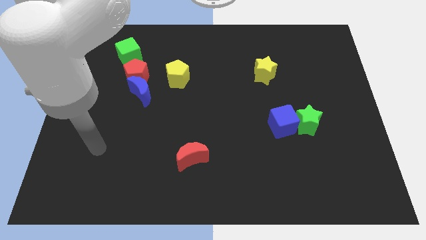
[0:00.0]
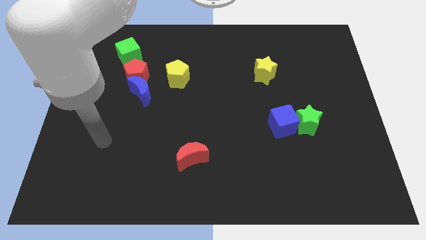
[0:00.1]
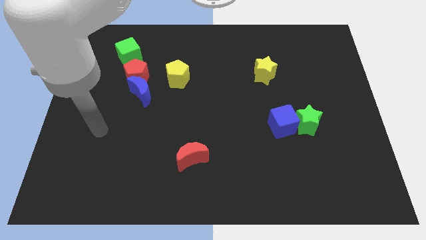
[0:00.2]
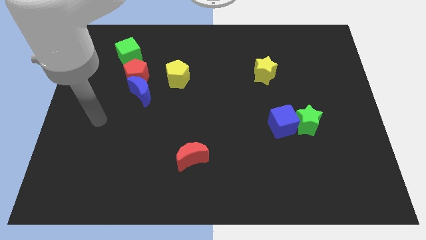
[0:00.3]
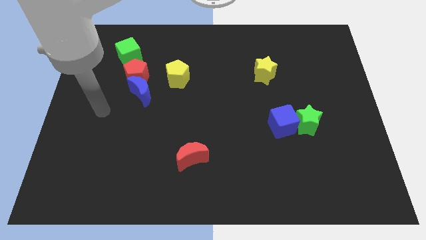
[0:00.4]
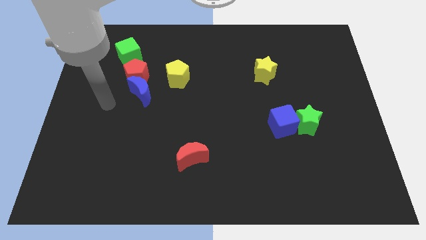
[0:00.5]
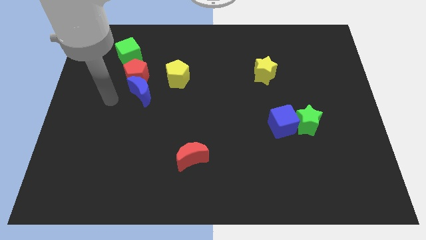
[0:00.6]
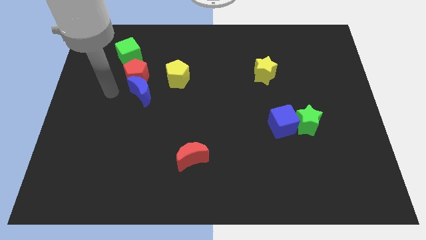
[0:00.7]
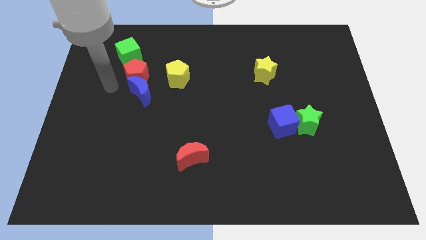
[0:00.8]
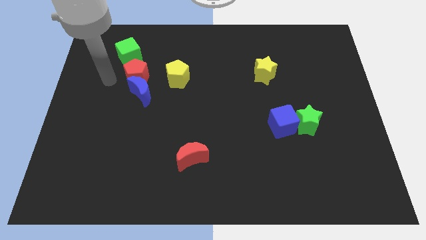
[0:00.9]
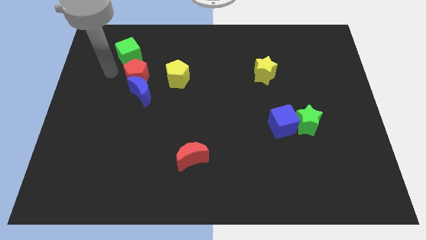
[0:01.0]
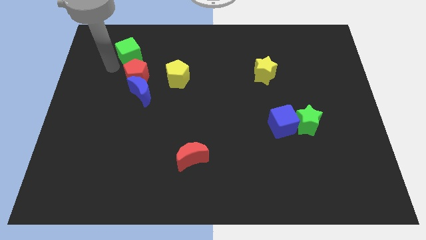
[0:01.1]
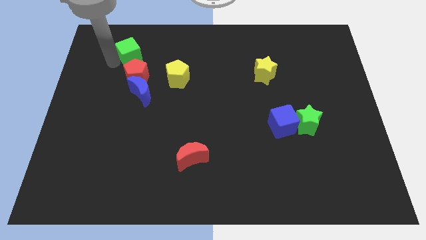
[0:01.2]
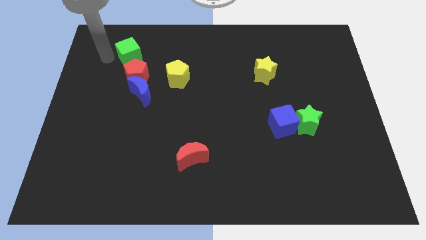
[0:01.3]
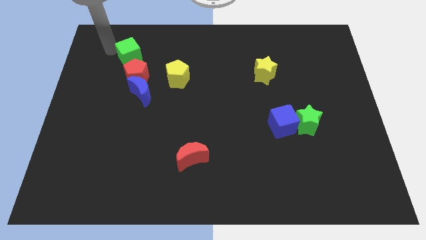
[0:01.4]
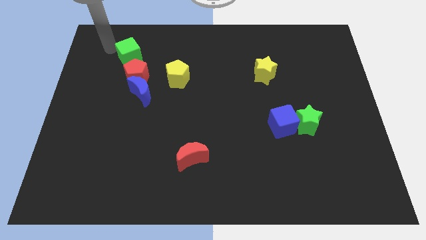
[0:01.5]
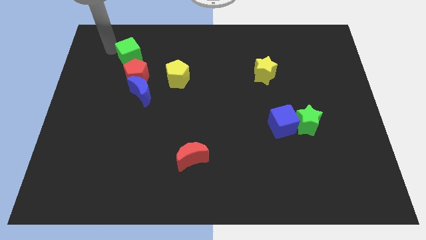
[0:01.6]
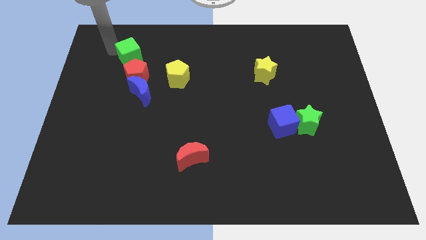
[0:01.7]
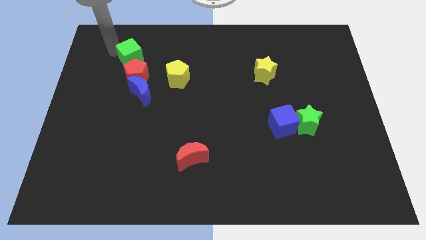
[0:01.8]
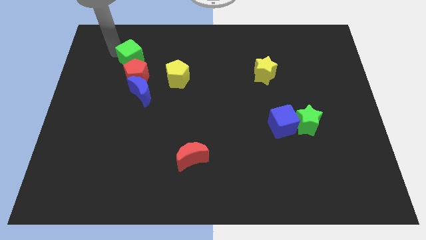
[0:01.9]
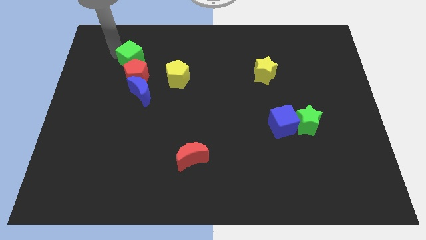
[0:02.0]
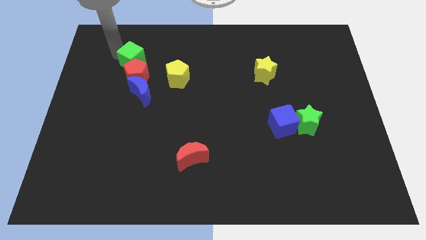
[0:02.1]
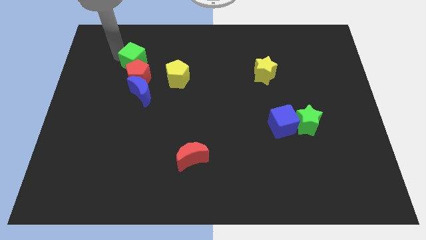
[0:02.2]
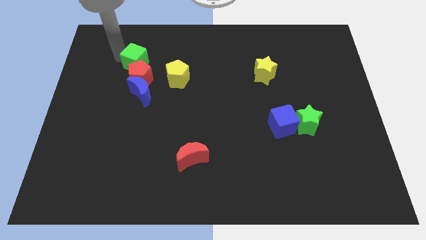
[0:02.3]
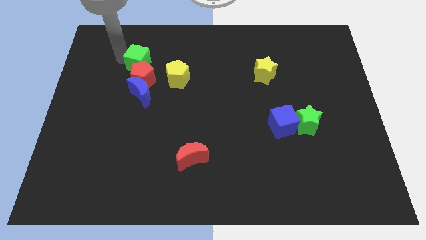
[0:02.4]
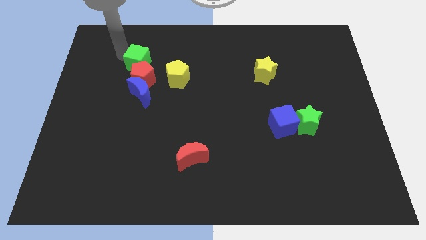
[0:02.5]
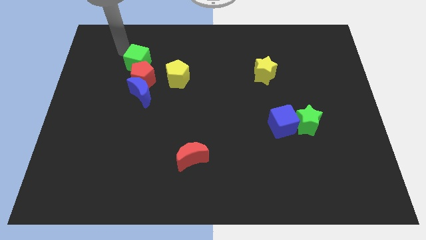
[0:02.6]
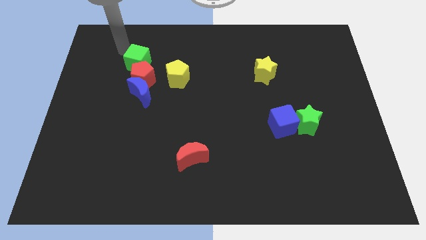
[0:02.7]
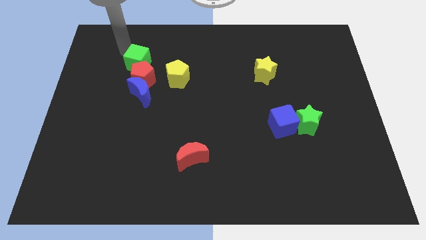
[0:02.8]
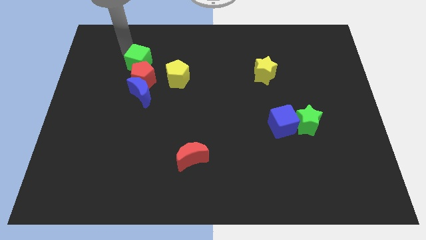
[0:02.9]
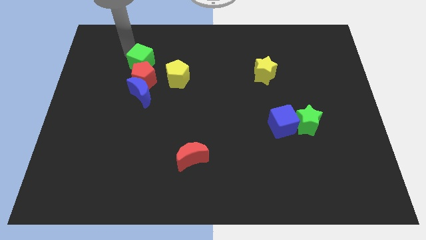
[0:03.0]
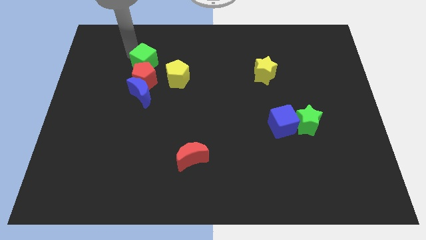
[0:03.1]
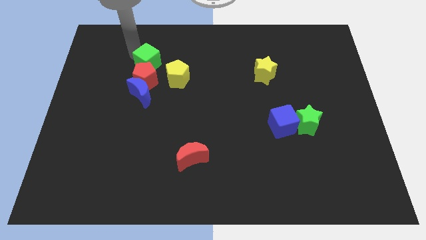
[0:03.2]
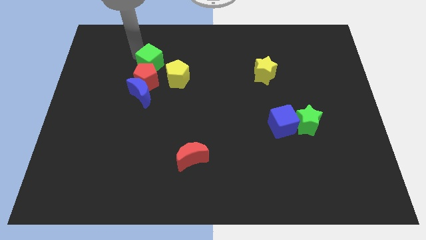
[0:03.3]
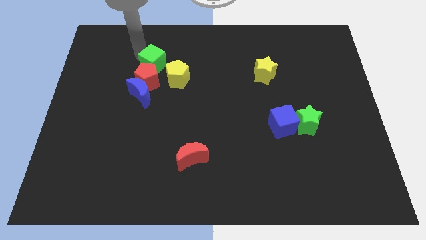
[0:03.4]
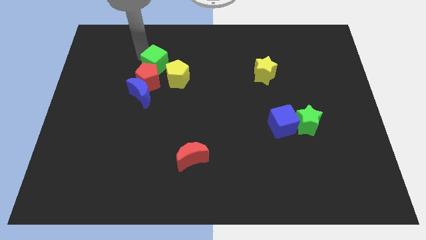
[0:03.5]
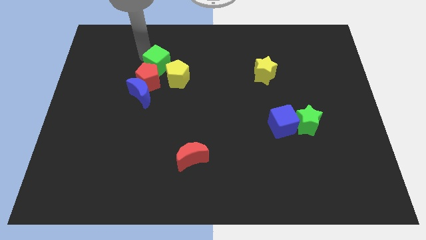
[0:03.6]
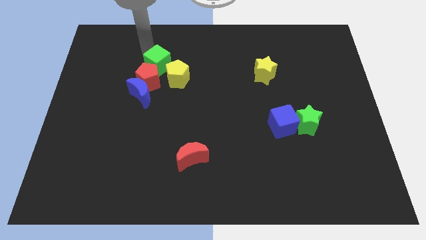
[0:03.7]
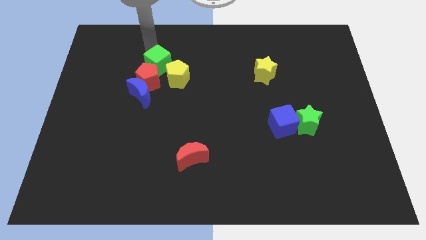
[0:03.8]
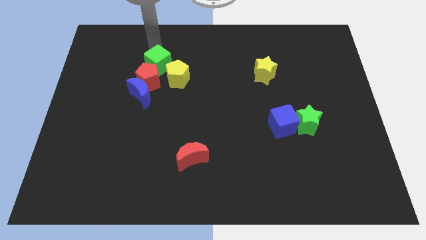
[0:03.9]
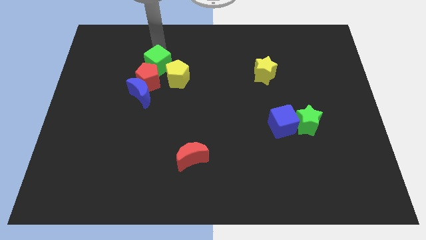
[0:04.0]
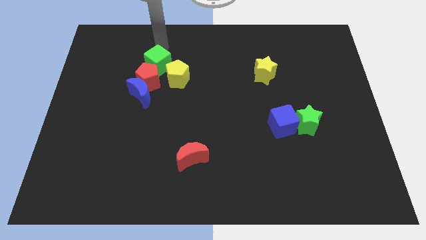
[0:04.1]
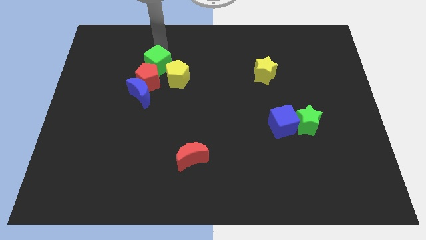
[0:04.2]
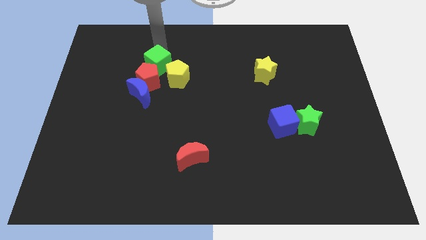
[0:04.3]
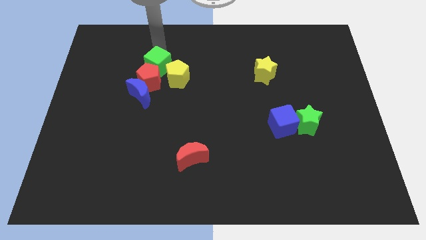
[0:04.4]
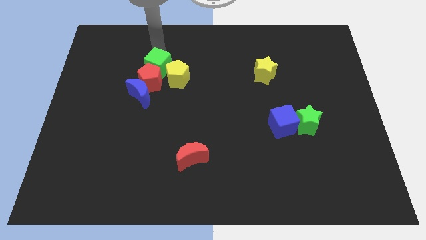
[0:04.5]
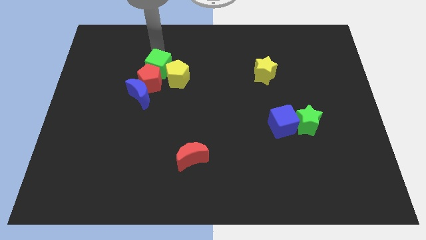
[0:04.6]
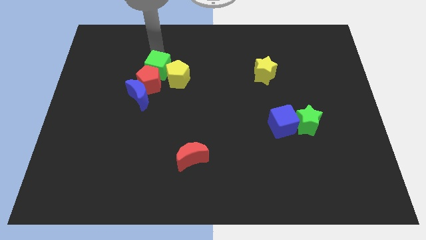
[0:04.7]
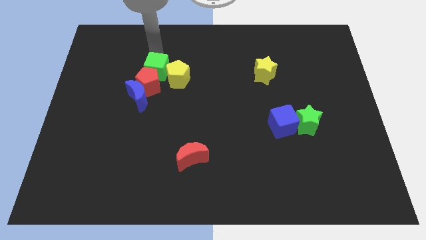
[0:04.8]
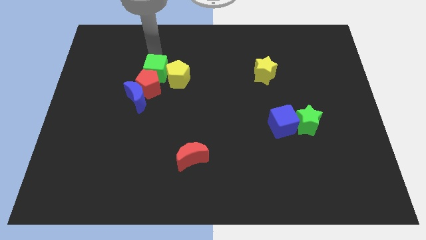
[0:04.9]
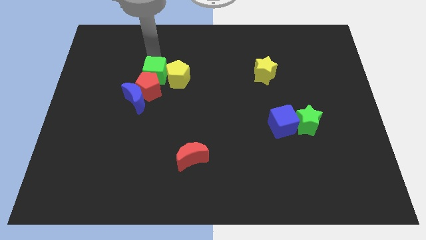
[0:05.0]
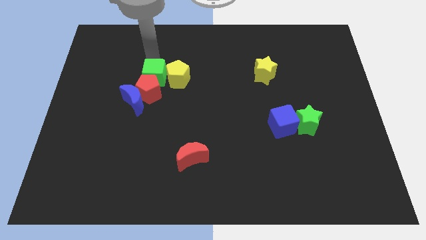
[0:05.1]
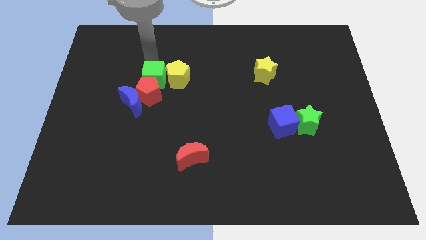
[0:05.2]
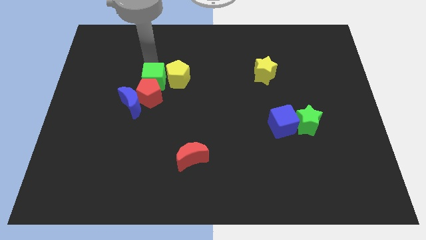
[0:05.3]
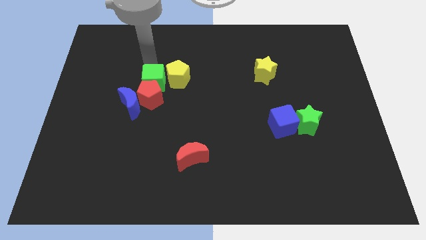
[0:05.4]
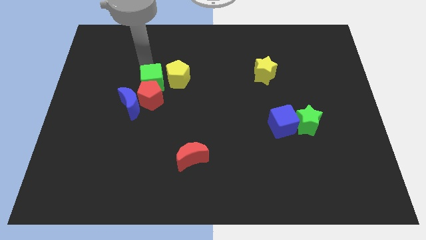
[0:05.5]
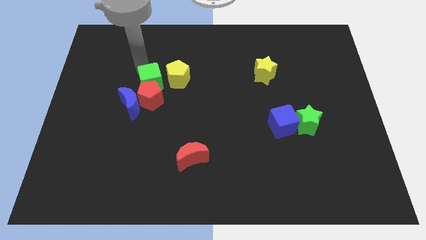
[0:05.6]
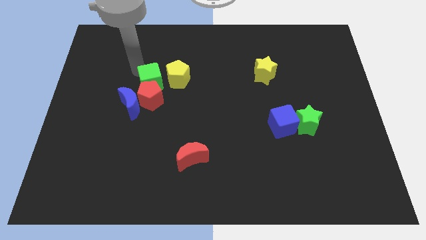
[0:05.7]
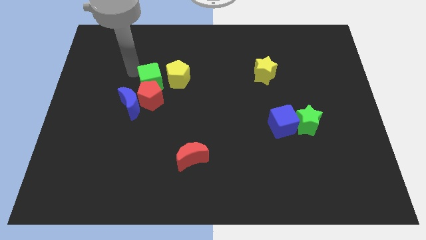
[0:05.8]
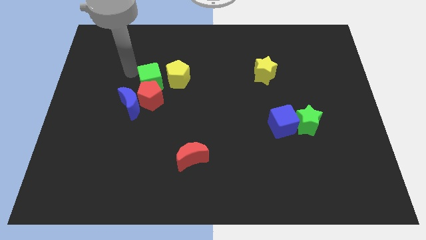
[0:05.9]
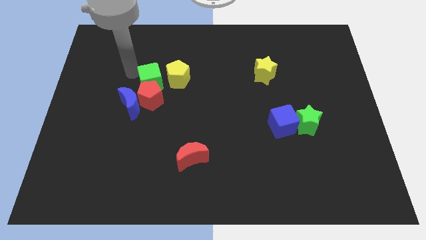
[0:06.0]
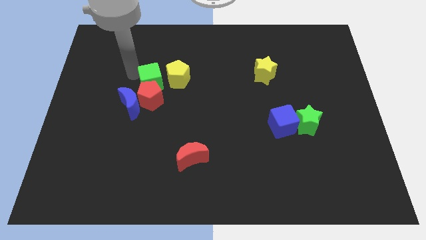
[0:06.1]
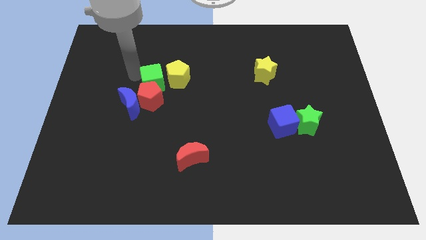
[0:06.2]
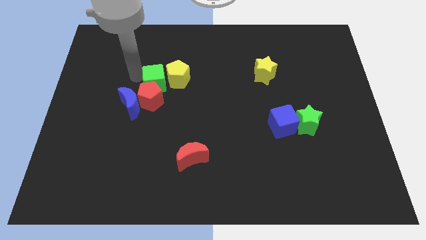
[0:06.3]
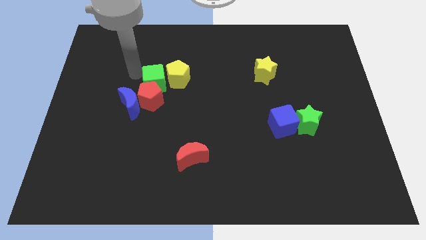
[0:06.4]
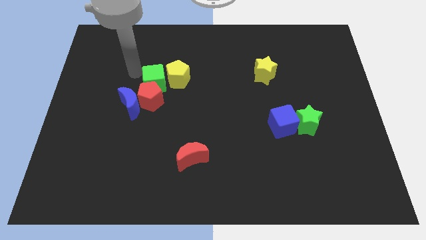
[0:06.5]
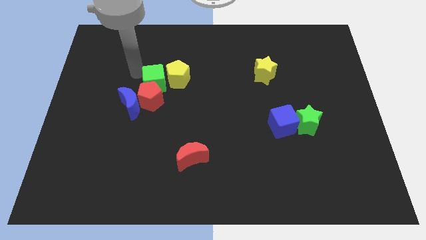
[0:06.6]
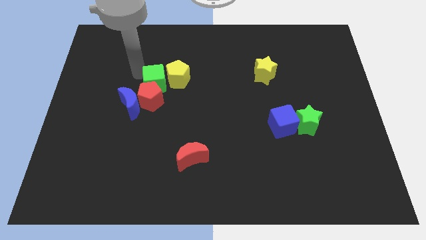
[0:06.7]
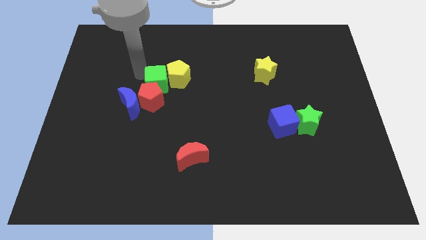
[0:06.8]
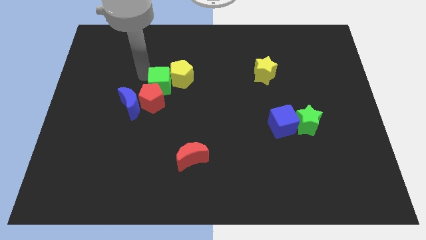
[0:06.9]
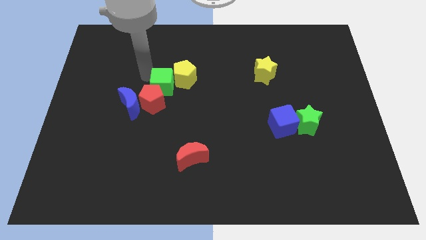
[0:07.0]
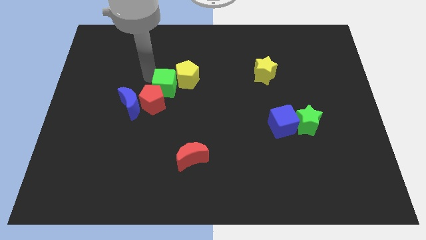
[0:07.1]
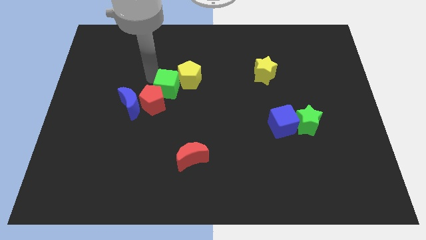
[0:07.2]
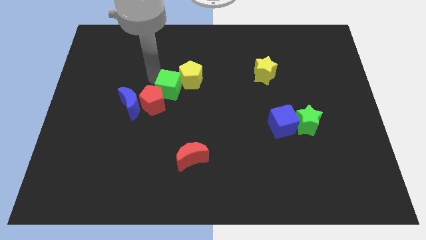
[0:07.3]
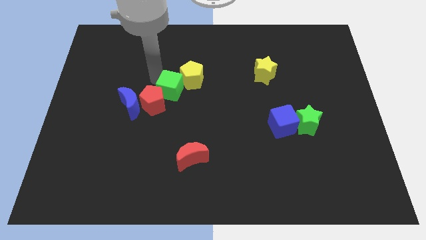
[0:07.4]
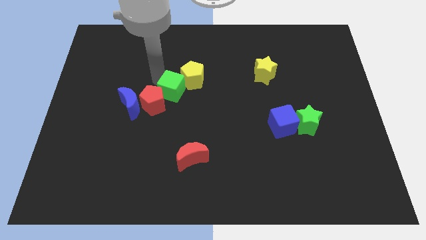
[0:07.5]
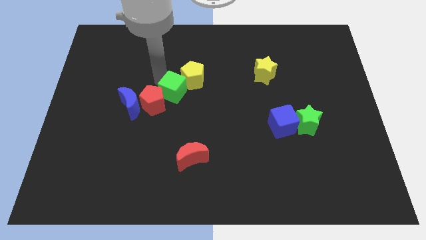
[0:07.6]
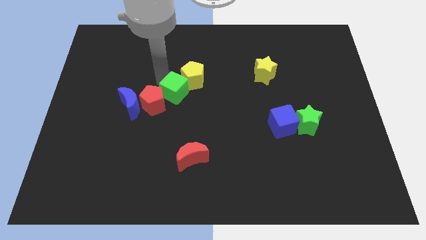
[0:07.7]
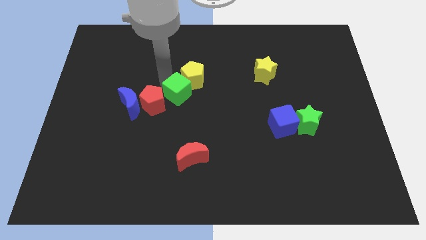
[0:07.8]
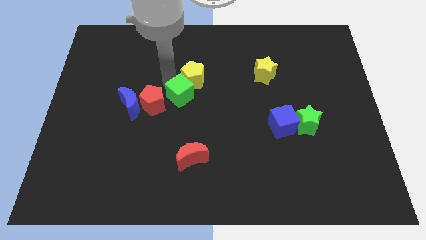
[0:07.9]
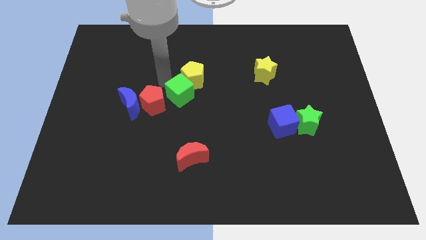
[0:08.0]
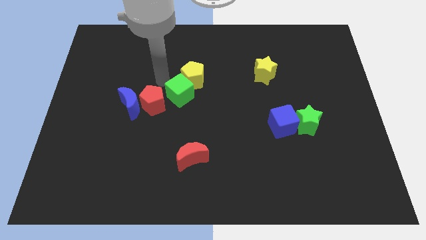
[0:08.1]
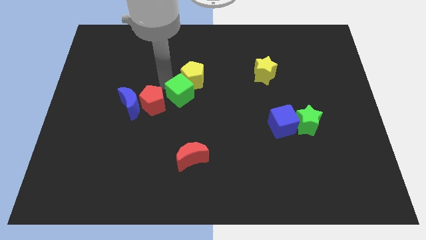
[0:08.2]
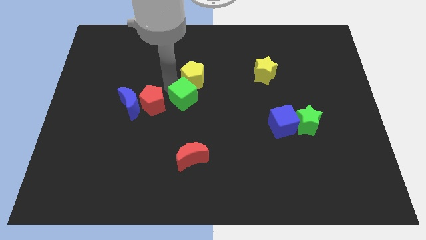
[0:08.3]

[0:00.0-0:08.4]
slide the green cube downwards and right diagonally
